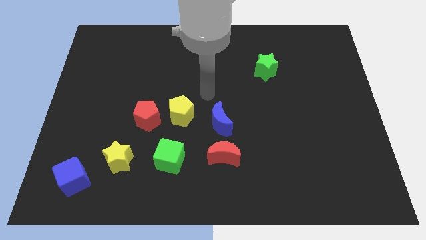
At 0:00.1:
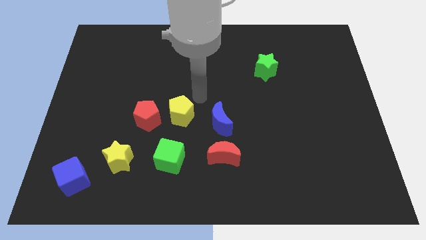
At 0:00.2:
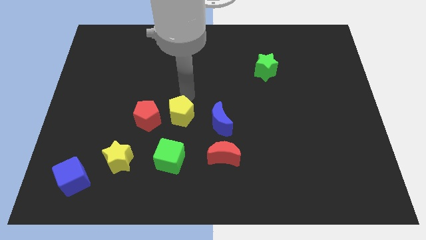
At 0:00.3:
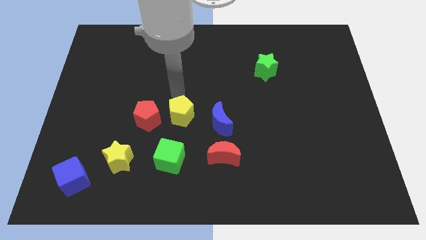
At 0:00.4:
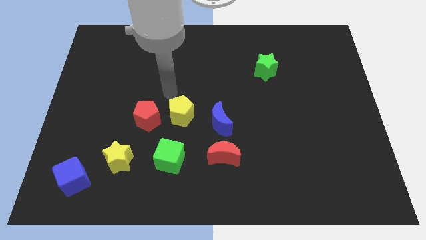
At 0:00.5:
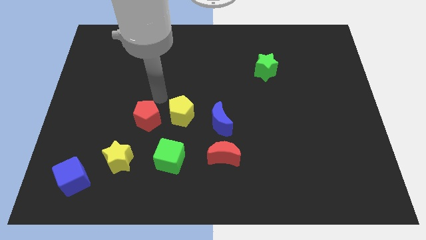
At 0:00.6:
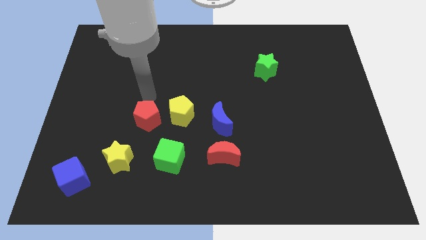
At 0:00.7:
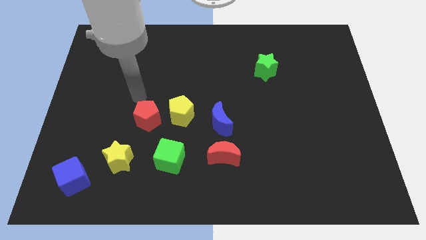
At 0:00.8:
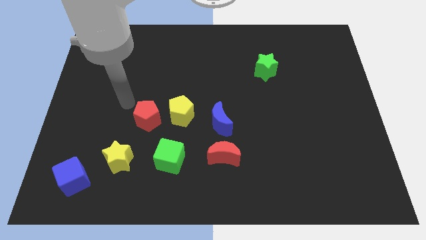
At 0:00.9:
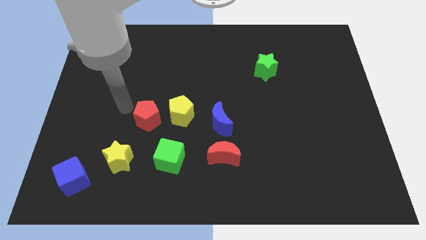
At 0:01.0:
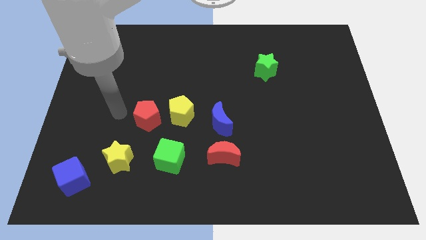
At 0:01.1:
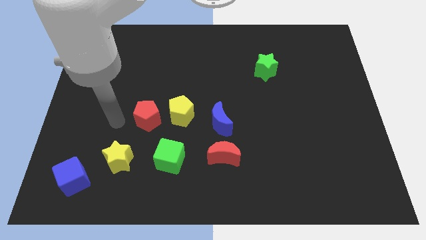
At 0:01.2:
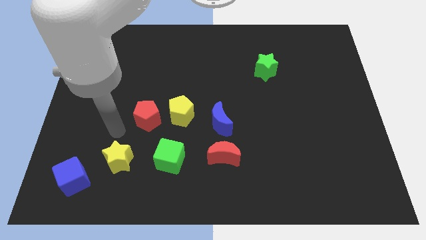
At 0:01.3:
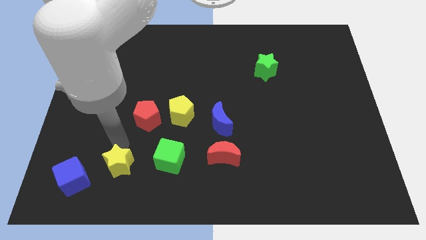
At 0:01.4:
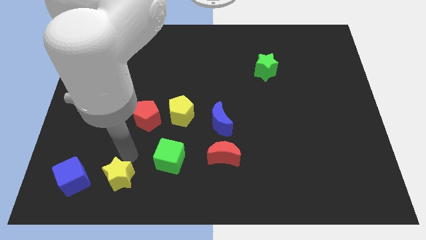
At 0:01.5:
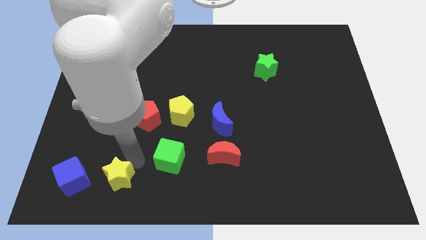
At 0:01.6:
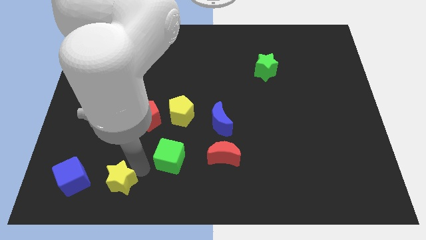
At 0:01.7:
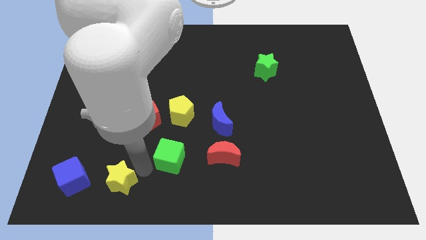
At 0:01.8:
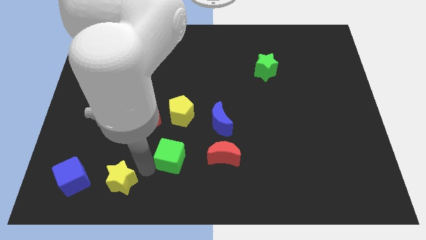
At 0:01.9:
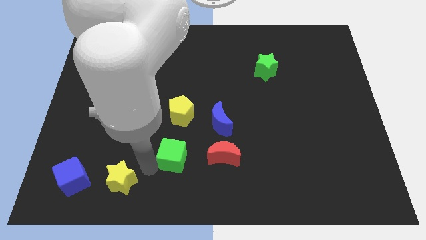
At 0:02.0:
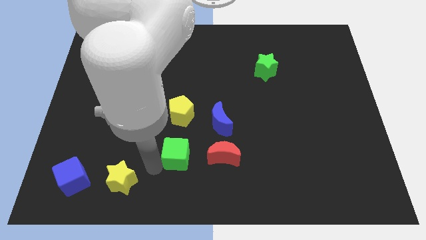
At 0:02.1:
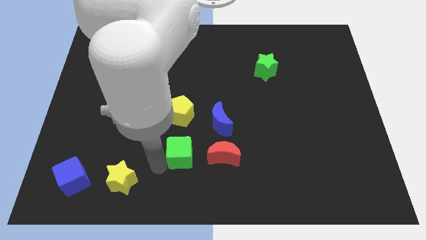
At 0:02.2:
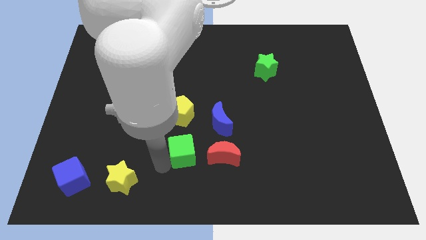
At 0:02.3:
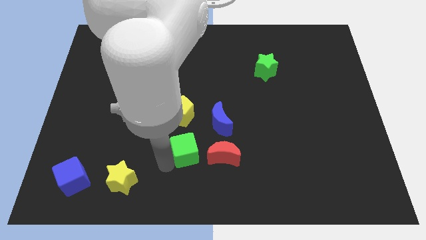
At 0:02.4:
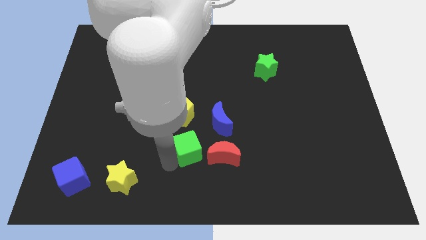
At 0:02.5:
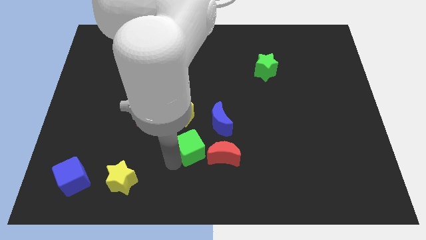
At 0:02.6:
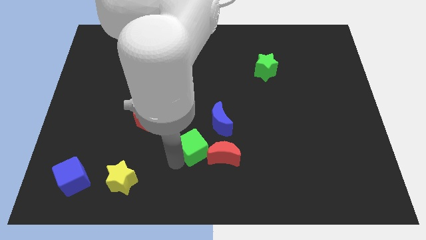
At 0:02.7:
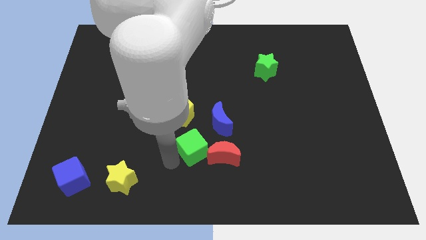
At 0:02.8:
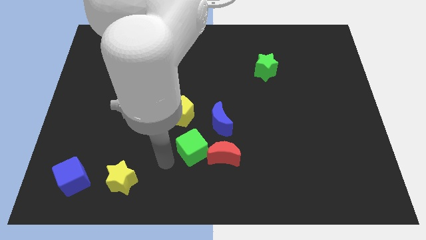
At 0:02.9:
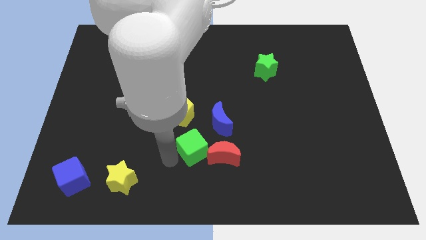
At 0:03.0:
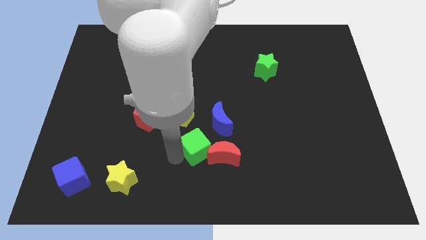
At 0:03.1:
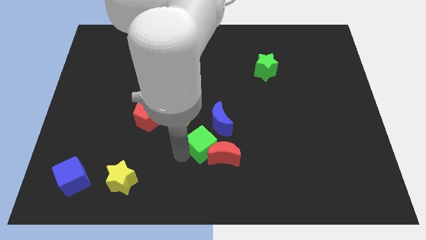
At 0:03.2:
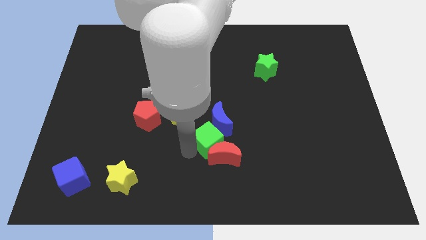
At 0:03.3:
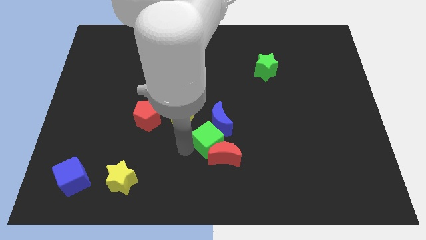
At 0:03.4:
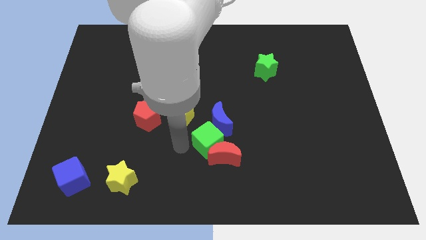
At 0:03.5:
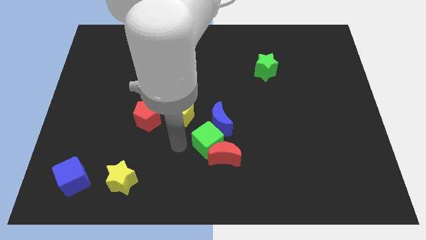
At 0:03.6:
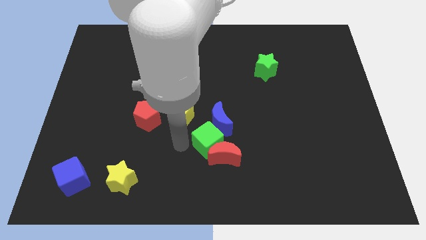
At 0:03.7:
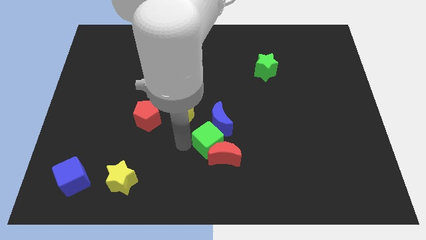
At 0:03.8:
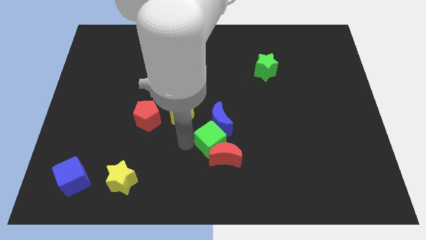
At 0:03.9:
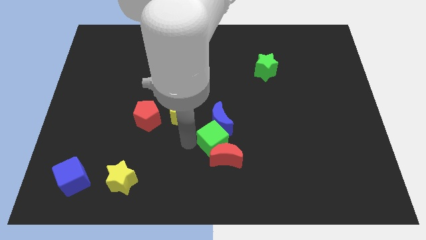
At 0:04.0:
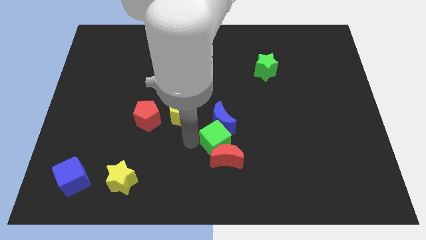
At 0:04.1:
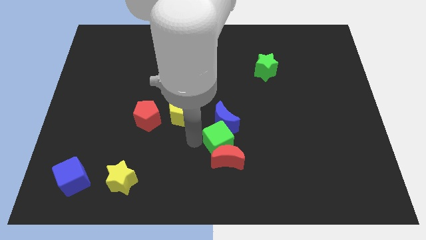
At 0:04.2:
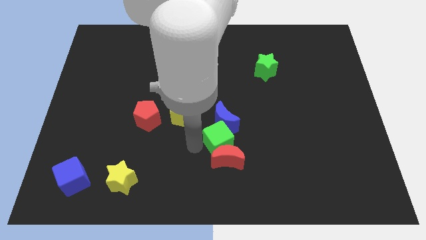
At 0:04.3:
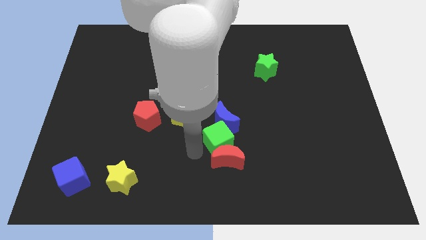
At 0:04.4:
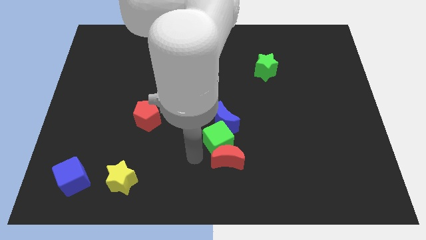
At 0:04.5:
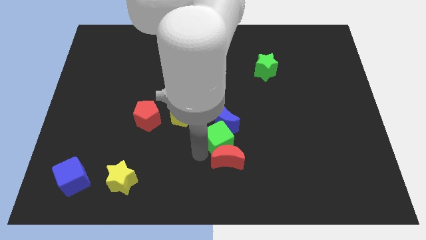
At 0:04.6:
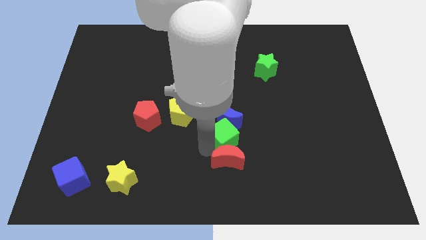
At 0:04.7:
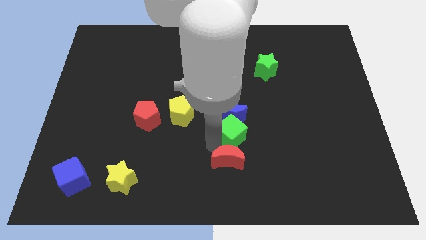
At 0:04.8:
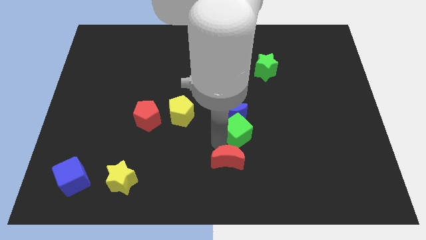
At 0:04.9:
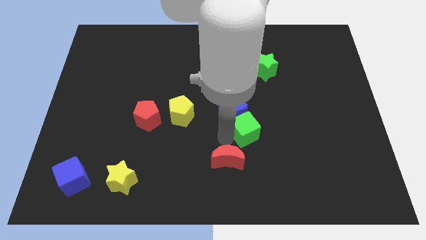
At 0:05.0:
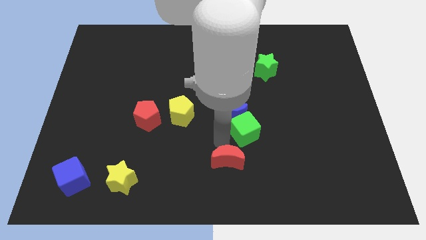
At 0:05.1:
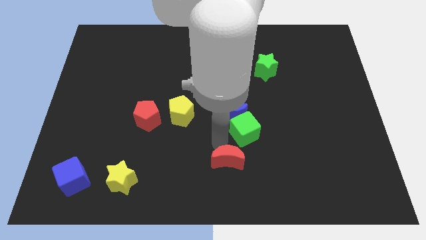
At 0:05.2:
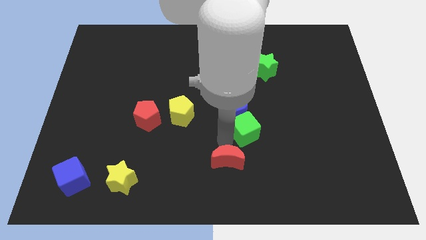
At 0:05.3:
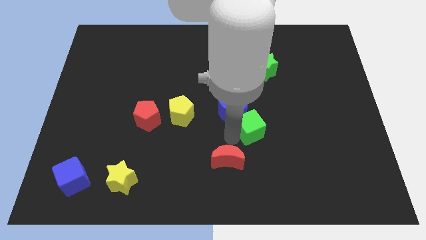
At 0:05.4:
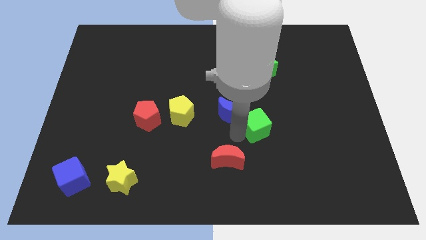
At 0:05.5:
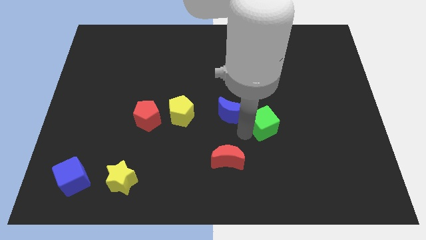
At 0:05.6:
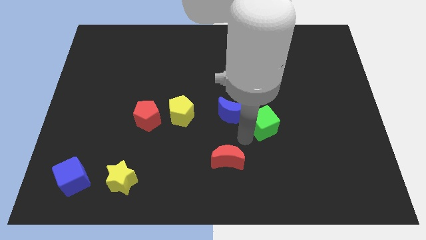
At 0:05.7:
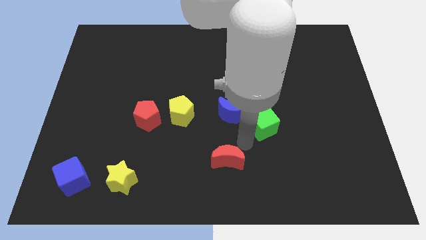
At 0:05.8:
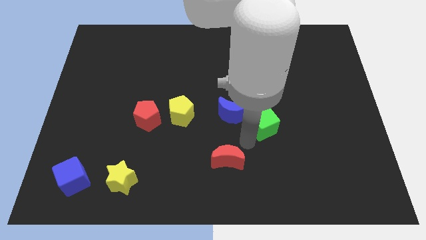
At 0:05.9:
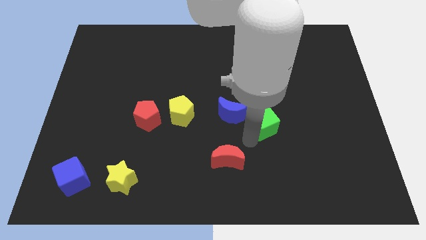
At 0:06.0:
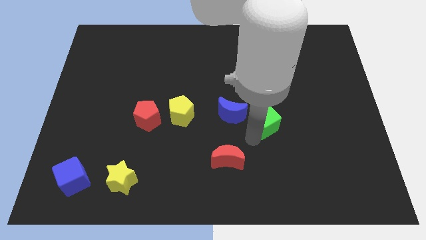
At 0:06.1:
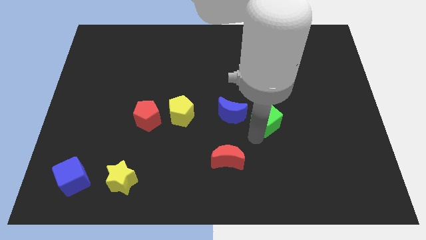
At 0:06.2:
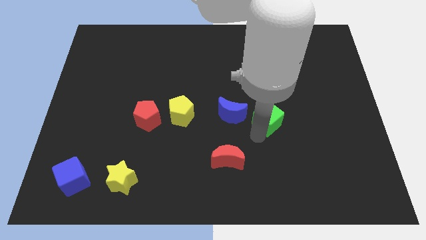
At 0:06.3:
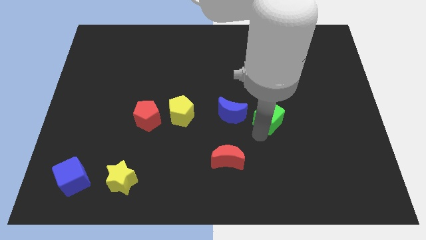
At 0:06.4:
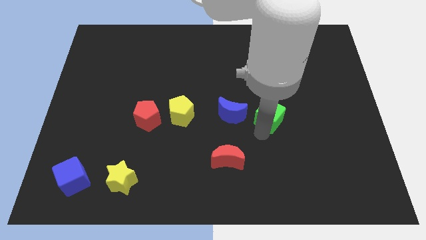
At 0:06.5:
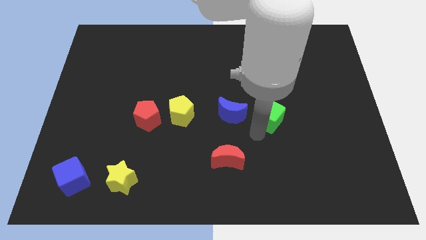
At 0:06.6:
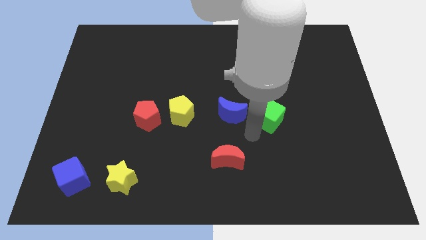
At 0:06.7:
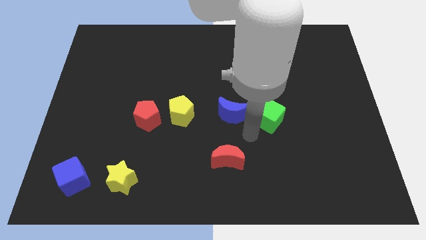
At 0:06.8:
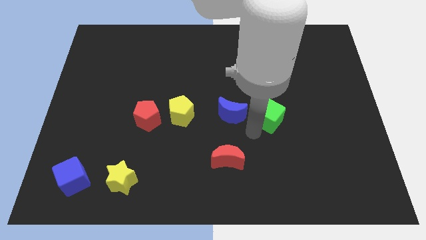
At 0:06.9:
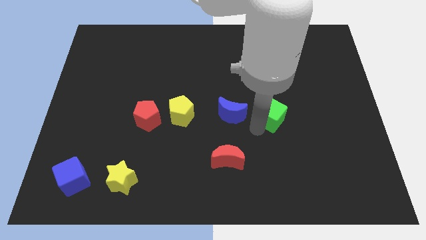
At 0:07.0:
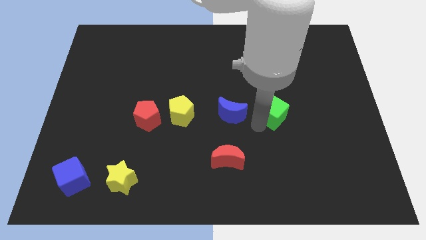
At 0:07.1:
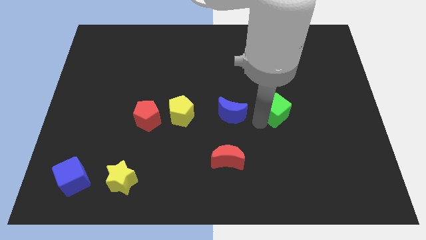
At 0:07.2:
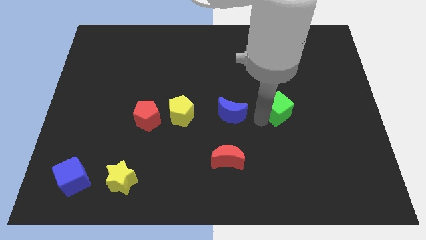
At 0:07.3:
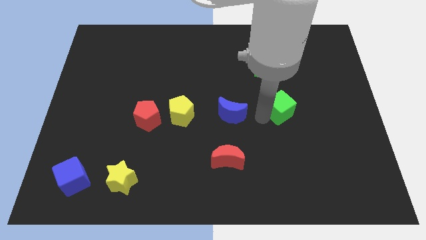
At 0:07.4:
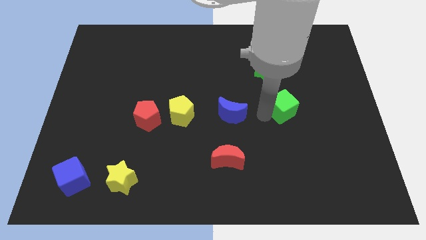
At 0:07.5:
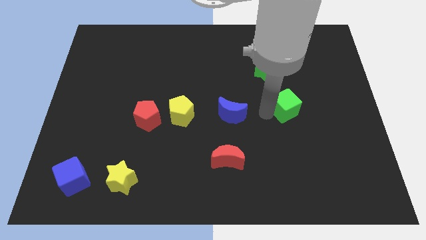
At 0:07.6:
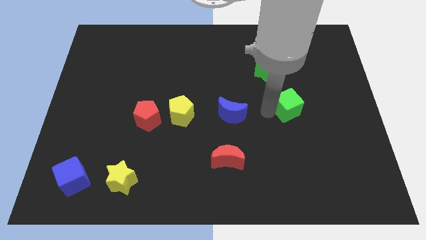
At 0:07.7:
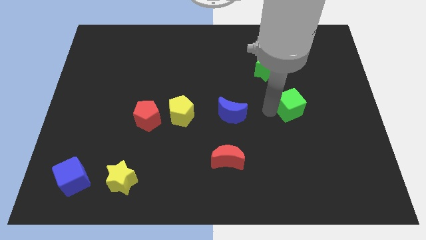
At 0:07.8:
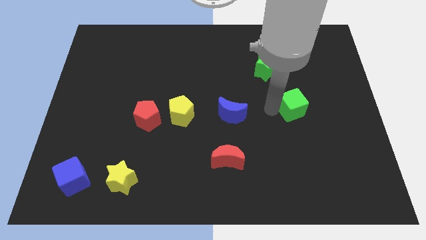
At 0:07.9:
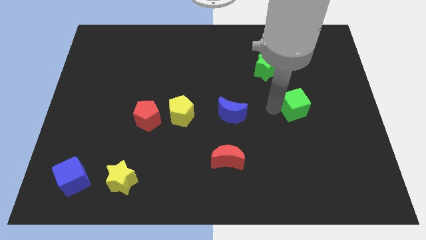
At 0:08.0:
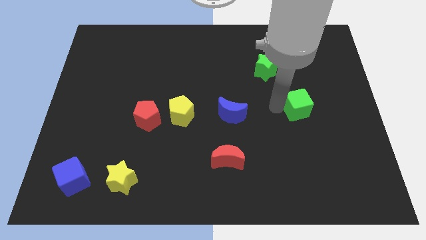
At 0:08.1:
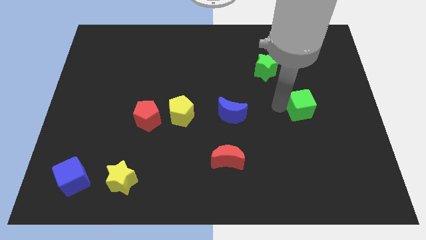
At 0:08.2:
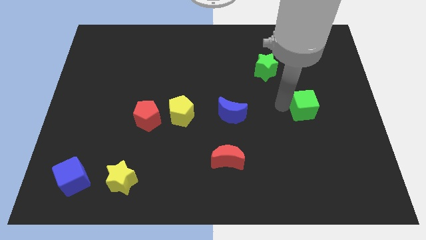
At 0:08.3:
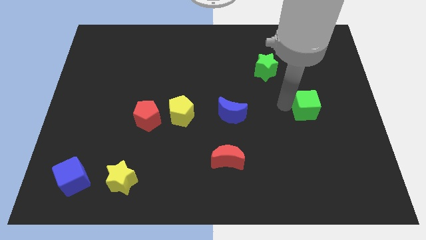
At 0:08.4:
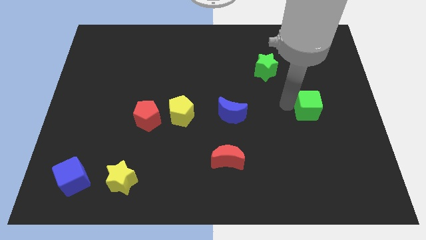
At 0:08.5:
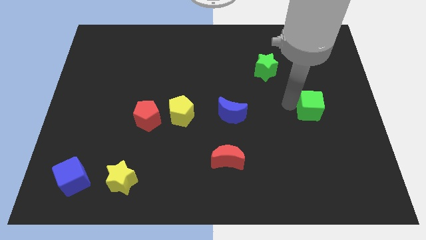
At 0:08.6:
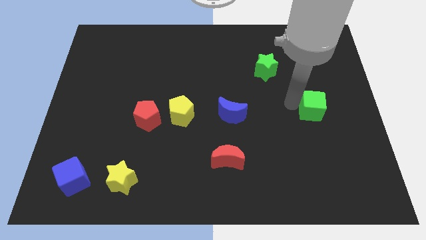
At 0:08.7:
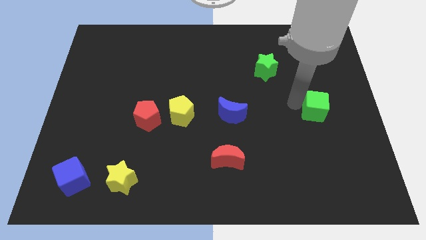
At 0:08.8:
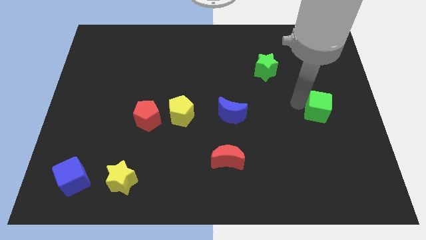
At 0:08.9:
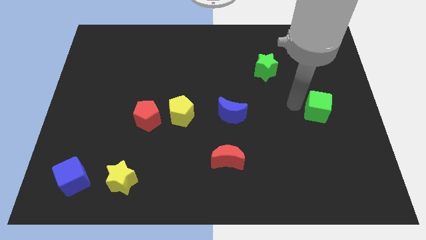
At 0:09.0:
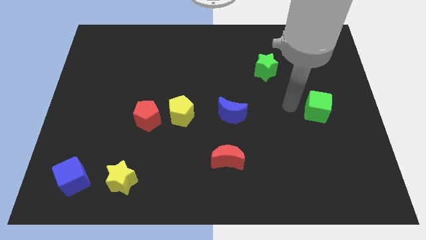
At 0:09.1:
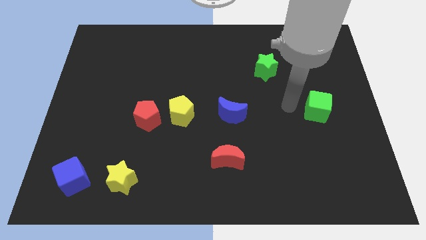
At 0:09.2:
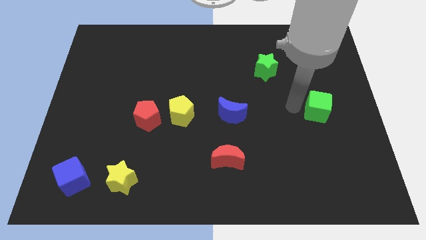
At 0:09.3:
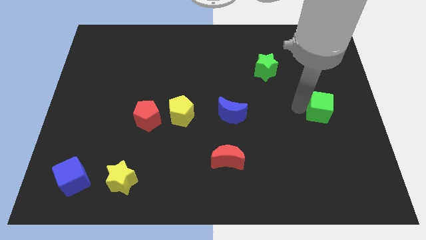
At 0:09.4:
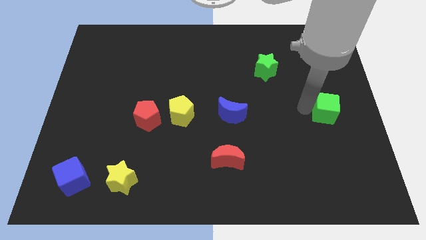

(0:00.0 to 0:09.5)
slide the green cube to the right side of the board
